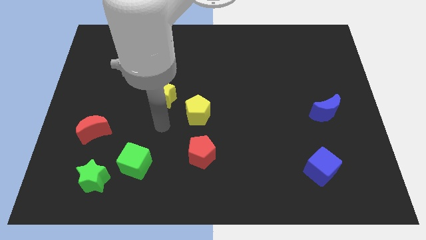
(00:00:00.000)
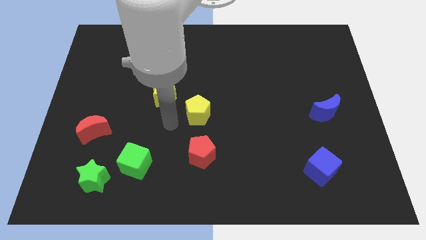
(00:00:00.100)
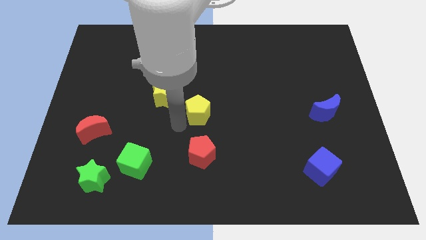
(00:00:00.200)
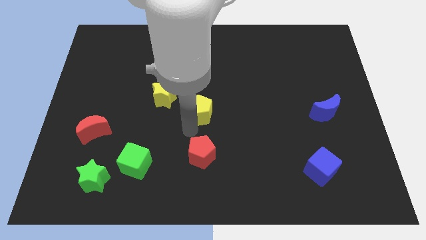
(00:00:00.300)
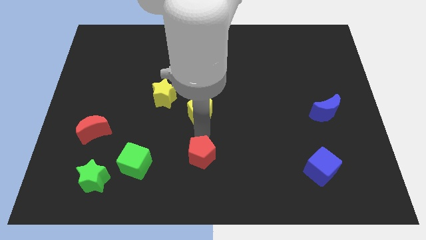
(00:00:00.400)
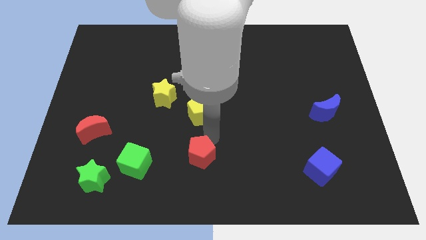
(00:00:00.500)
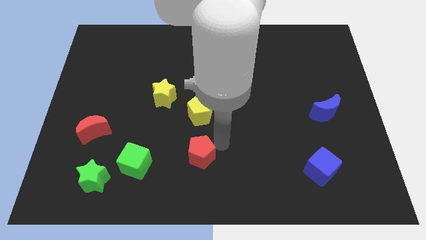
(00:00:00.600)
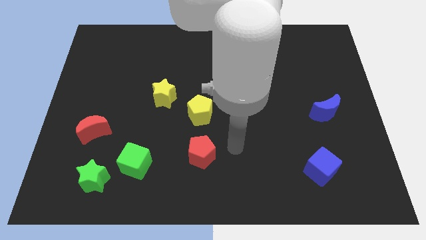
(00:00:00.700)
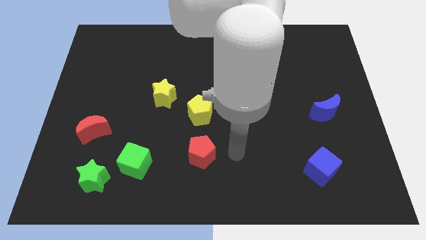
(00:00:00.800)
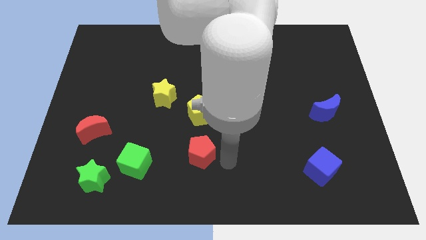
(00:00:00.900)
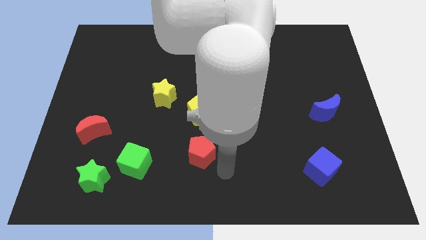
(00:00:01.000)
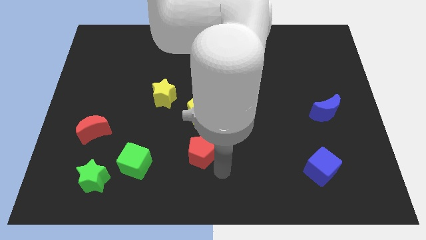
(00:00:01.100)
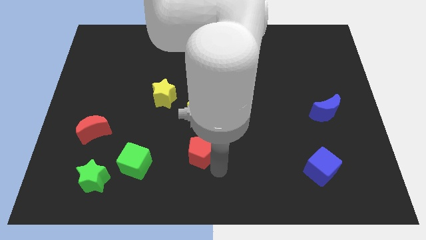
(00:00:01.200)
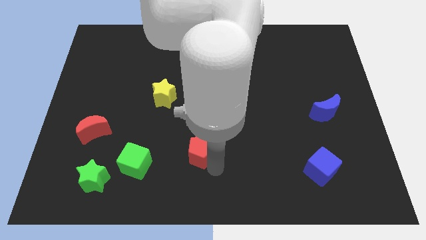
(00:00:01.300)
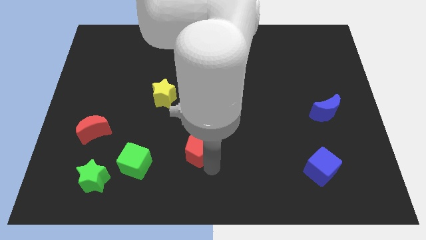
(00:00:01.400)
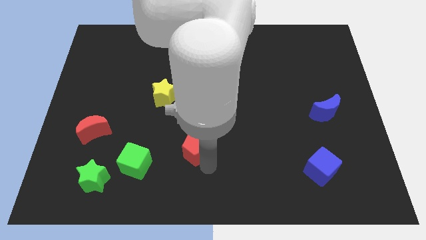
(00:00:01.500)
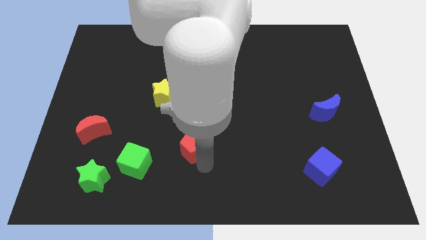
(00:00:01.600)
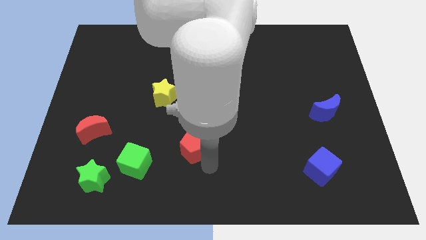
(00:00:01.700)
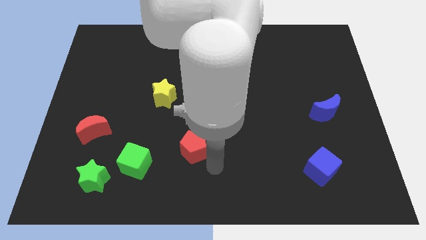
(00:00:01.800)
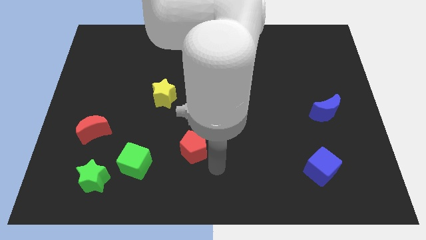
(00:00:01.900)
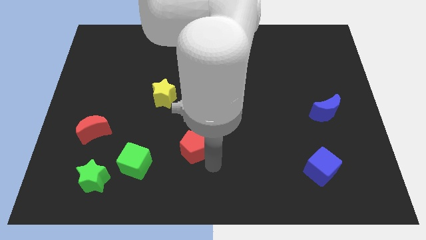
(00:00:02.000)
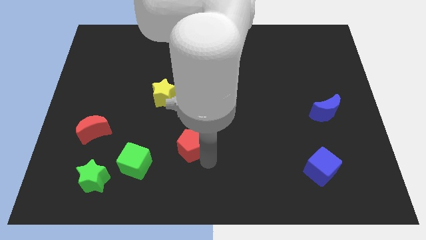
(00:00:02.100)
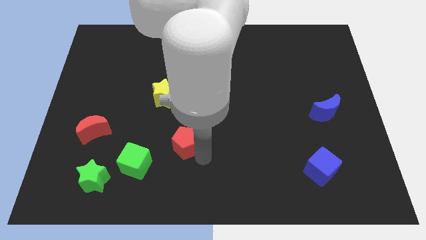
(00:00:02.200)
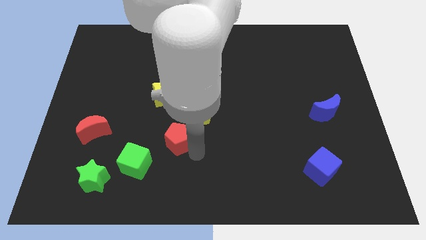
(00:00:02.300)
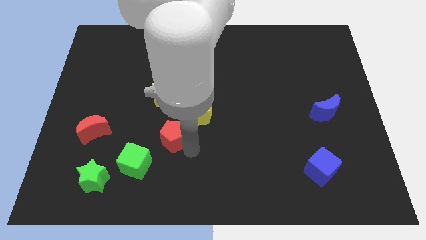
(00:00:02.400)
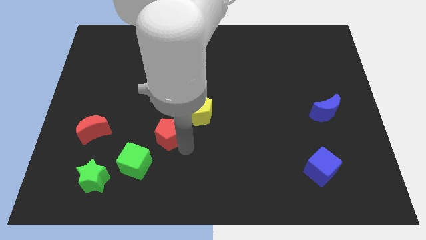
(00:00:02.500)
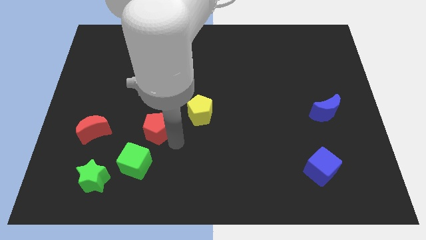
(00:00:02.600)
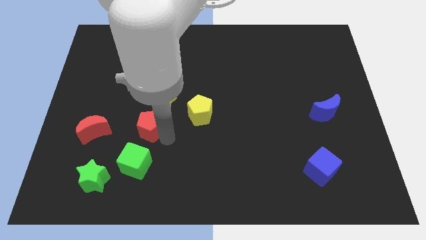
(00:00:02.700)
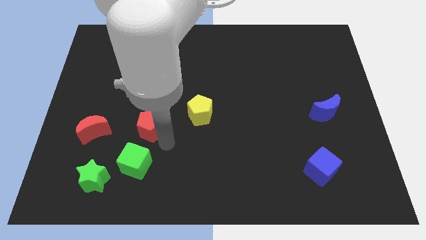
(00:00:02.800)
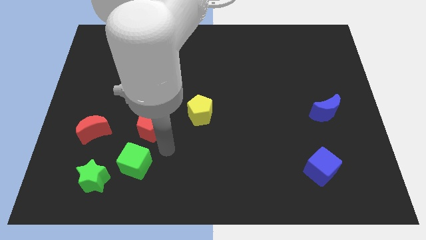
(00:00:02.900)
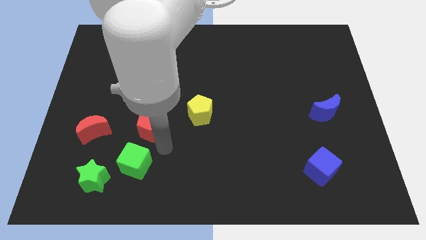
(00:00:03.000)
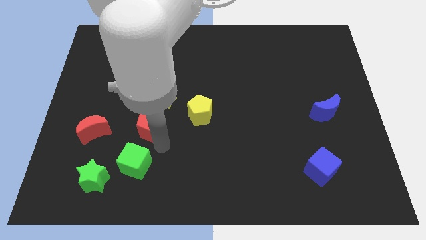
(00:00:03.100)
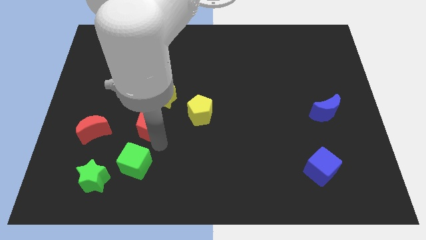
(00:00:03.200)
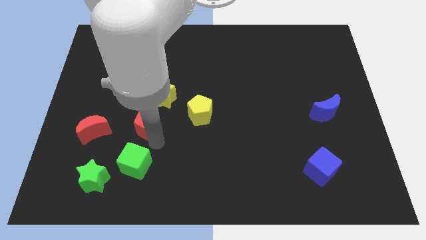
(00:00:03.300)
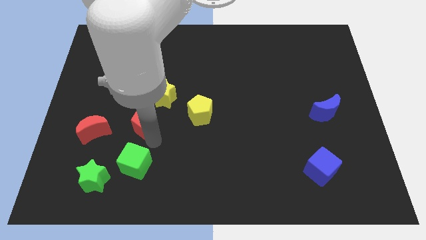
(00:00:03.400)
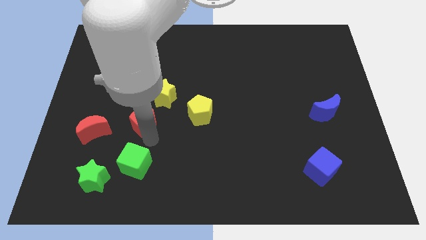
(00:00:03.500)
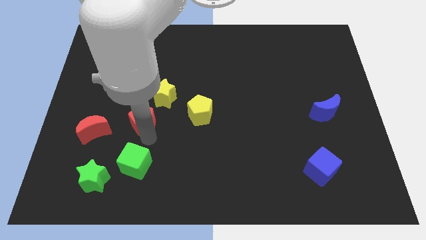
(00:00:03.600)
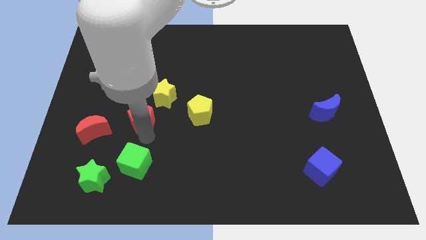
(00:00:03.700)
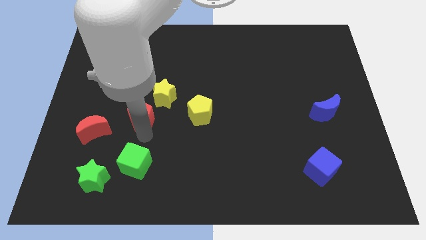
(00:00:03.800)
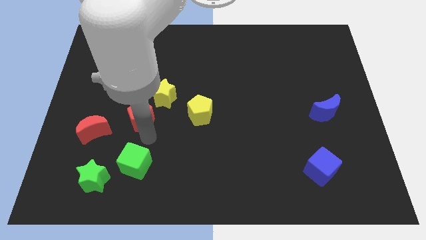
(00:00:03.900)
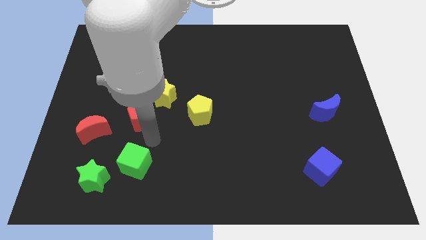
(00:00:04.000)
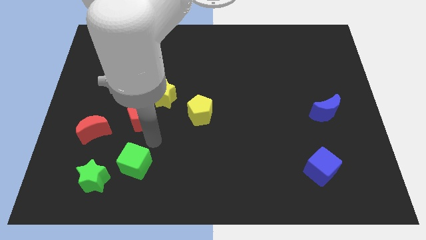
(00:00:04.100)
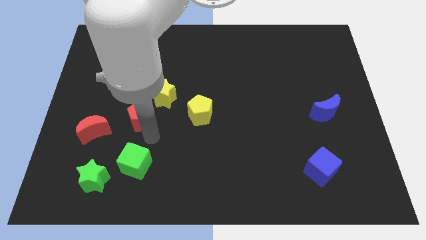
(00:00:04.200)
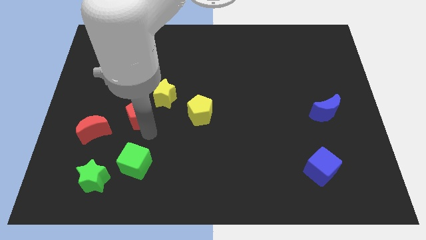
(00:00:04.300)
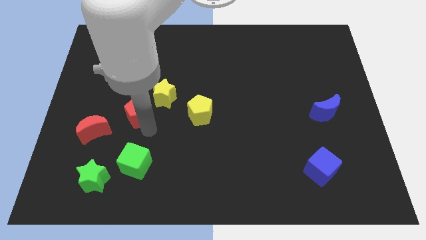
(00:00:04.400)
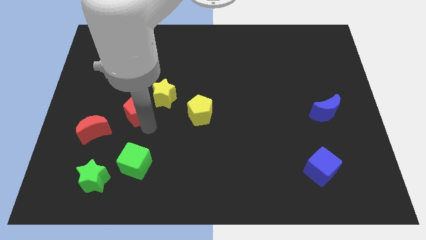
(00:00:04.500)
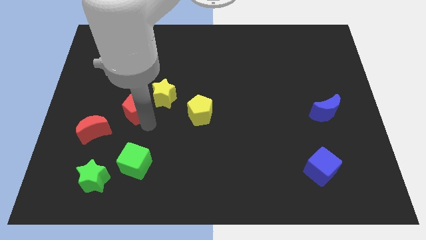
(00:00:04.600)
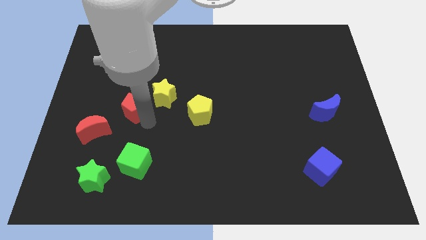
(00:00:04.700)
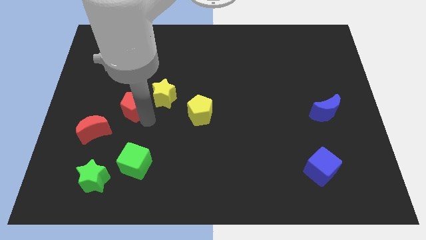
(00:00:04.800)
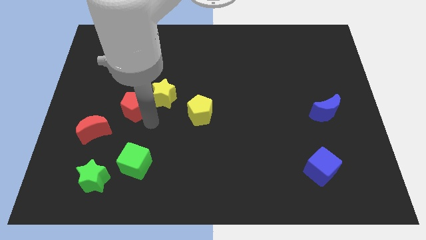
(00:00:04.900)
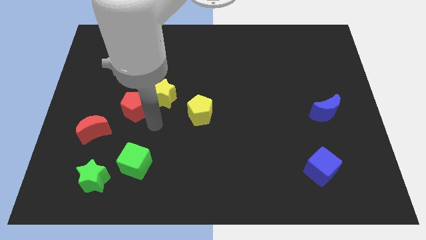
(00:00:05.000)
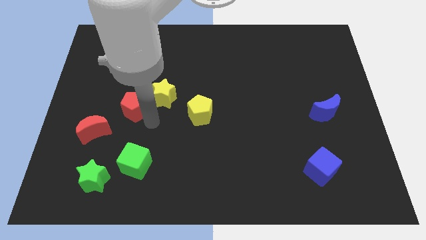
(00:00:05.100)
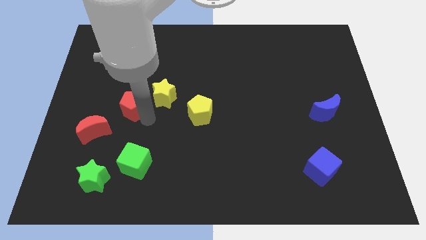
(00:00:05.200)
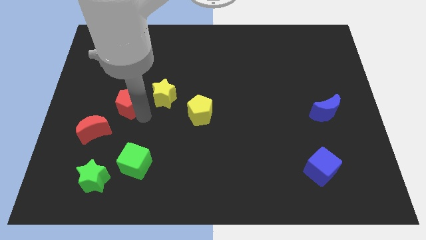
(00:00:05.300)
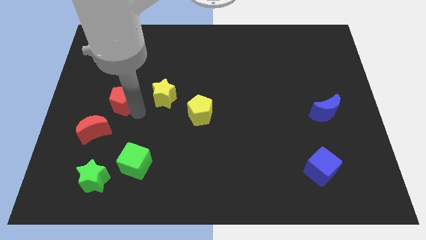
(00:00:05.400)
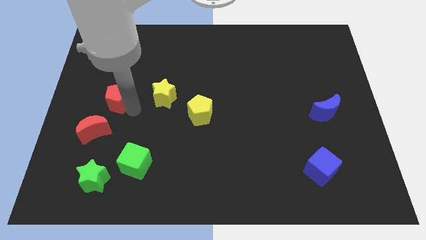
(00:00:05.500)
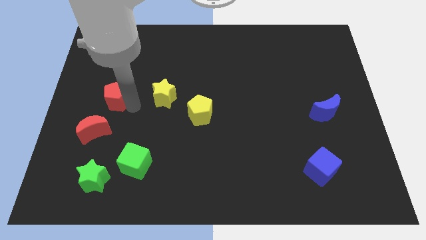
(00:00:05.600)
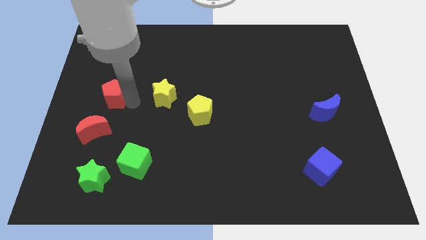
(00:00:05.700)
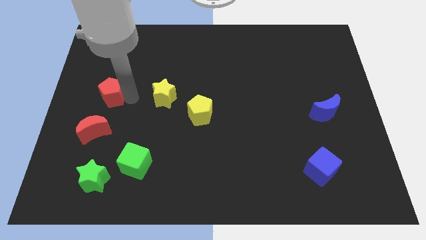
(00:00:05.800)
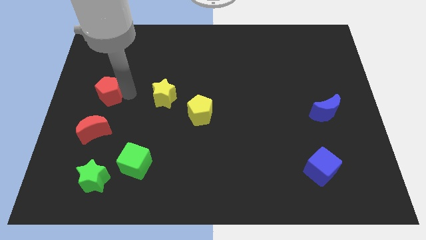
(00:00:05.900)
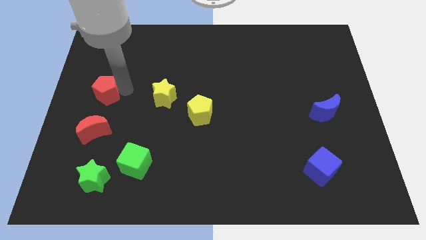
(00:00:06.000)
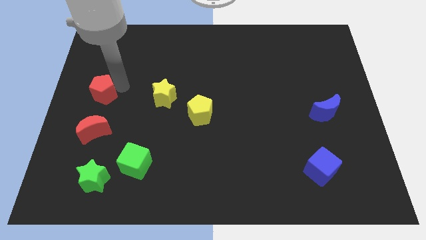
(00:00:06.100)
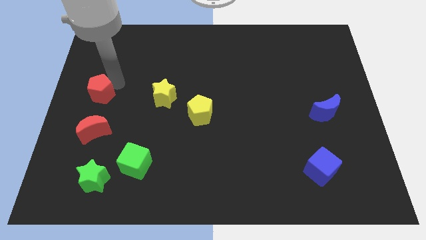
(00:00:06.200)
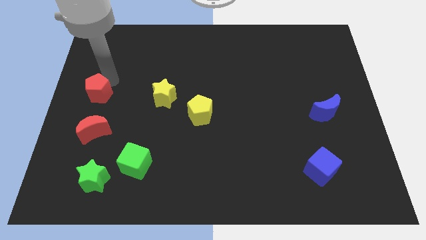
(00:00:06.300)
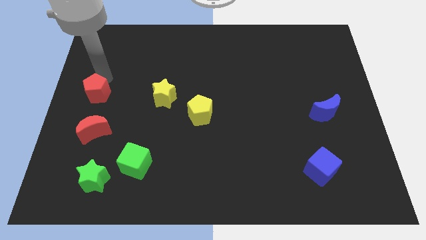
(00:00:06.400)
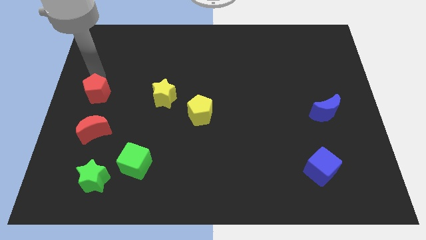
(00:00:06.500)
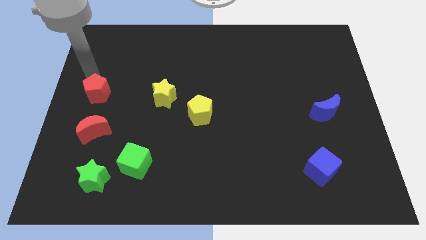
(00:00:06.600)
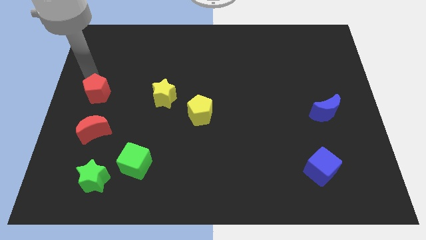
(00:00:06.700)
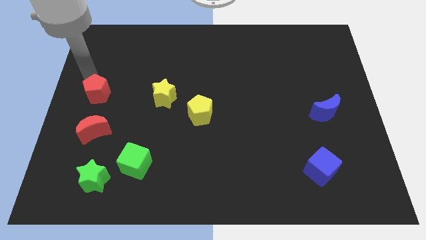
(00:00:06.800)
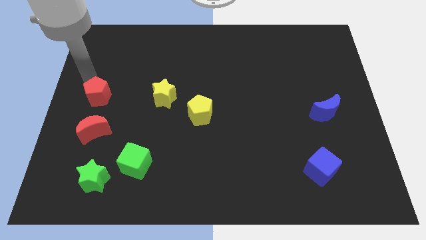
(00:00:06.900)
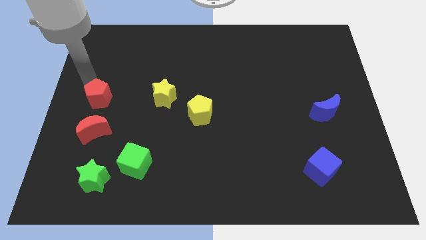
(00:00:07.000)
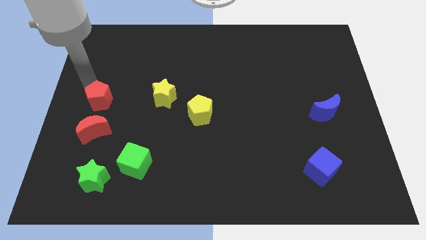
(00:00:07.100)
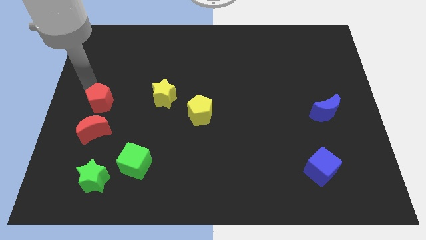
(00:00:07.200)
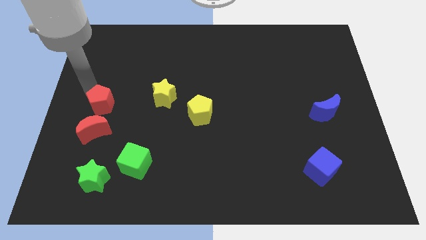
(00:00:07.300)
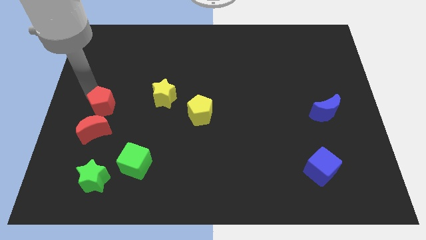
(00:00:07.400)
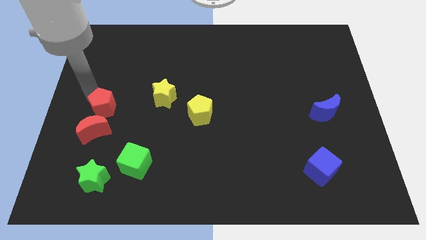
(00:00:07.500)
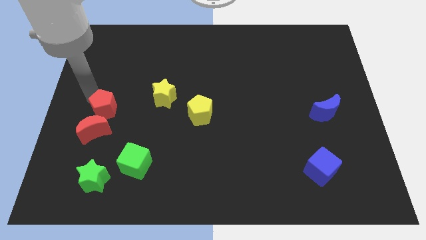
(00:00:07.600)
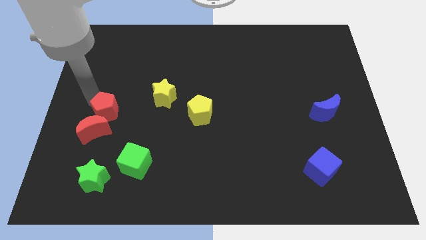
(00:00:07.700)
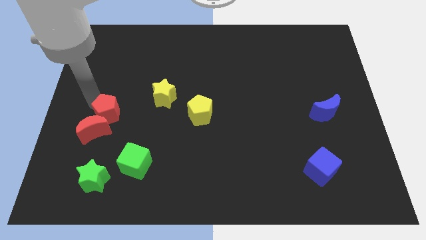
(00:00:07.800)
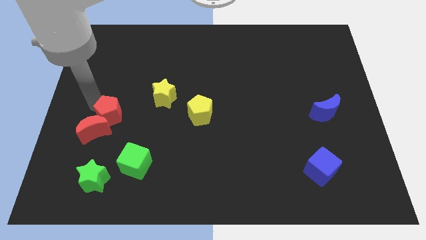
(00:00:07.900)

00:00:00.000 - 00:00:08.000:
put the red pentagon to the top side of the green star
